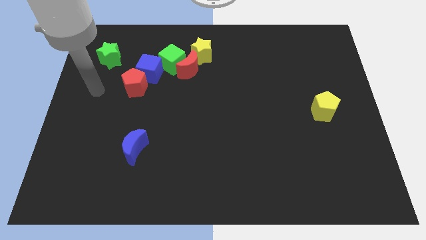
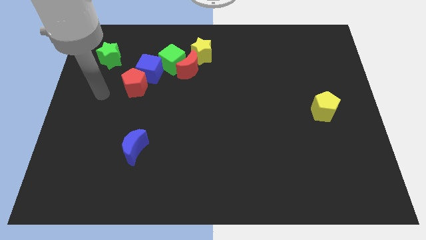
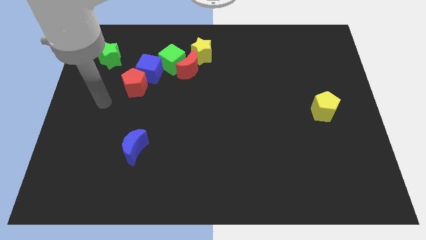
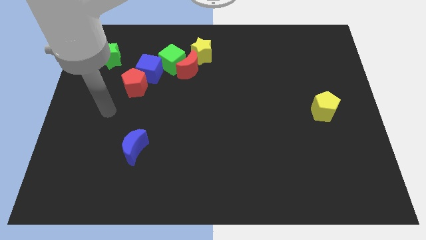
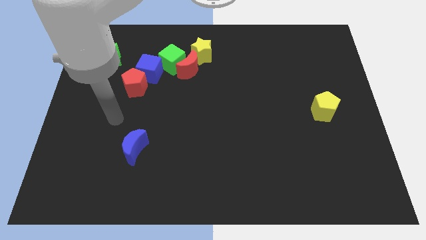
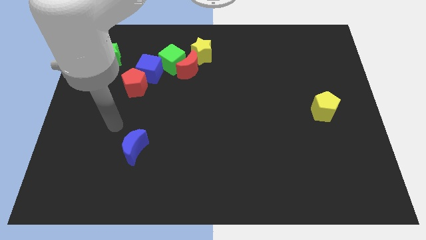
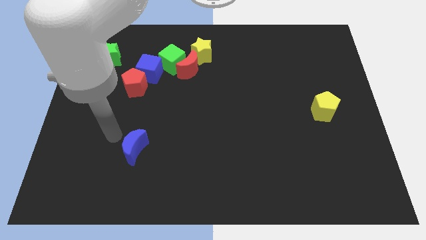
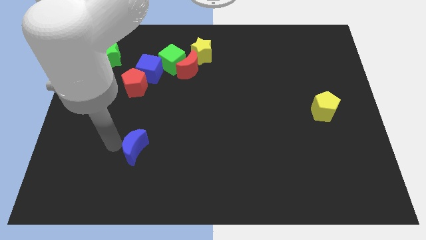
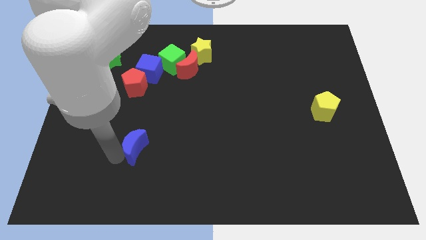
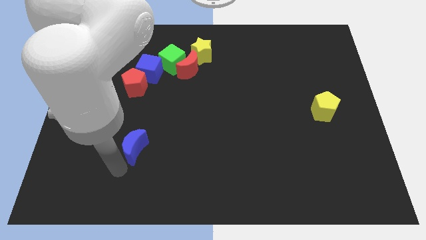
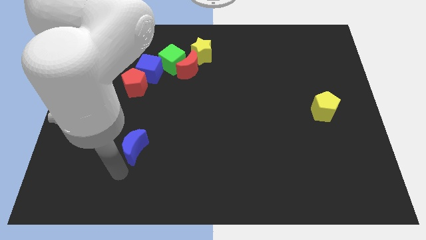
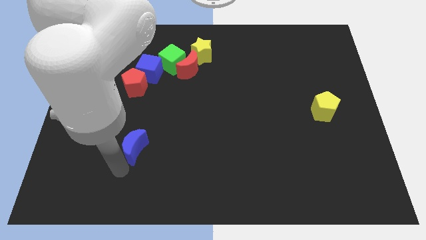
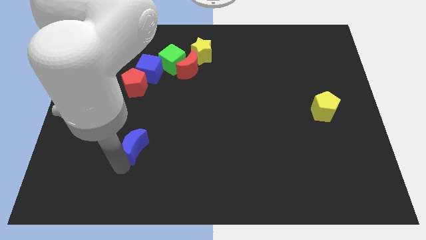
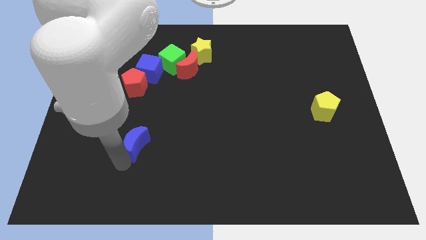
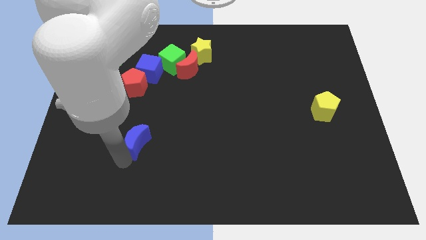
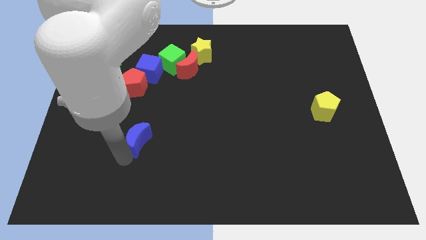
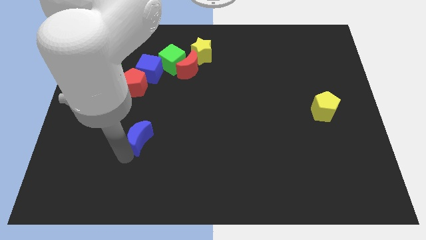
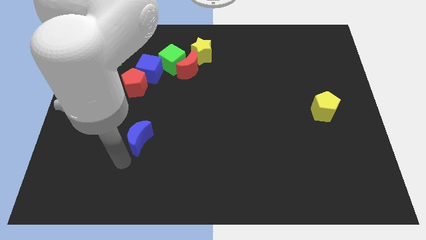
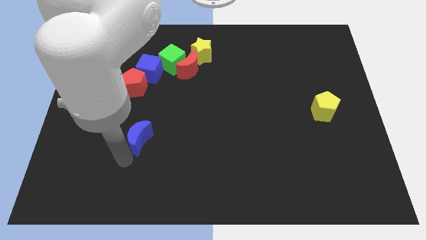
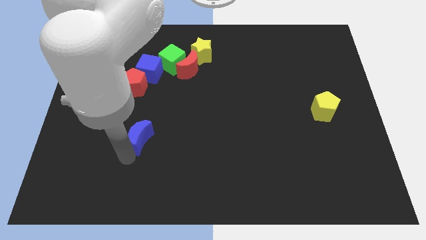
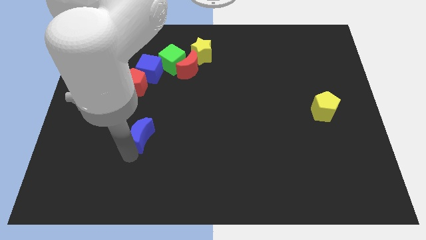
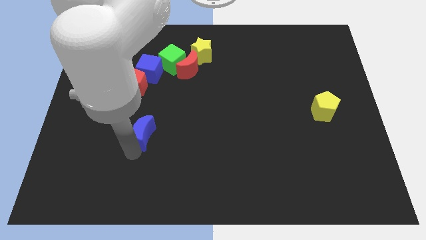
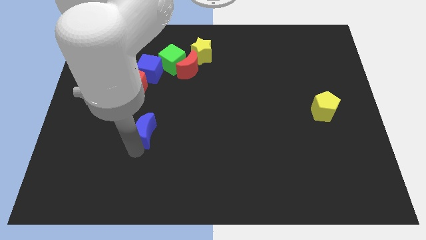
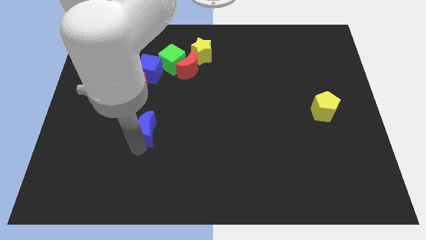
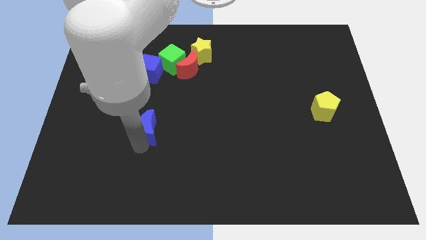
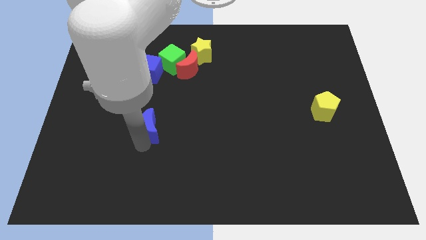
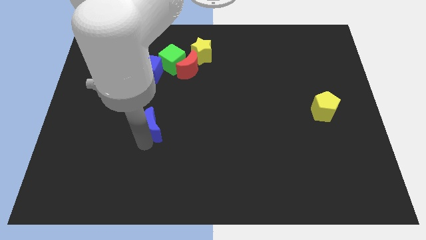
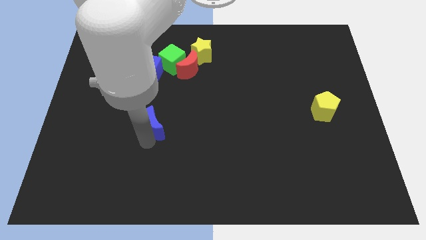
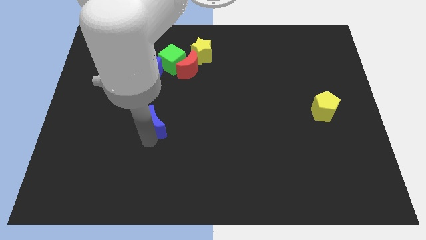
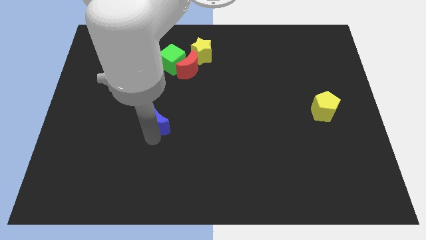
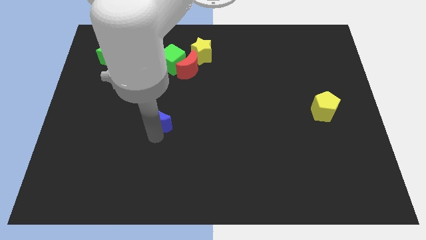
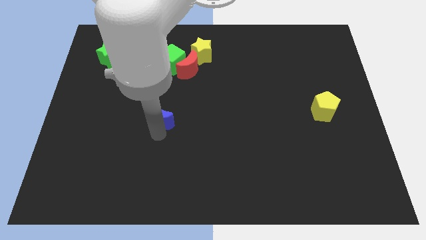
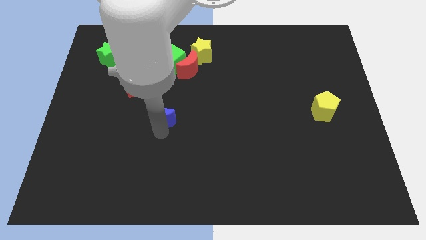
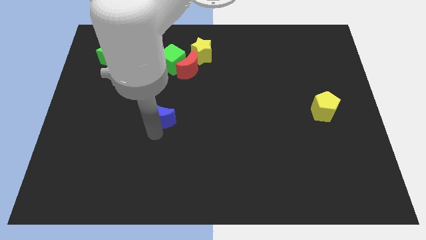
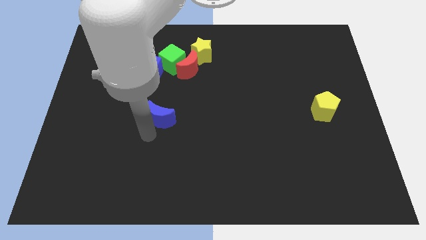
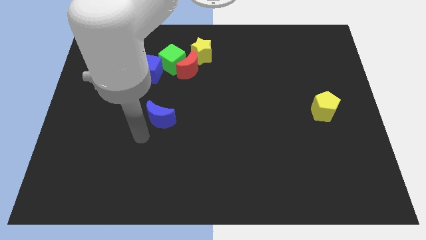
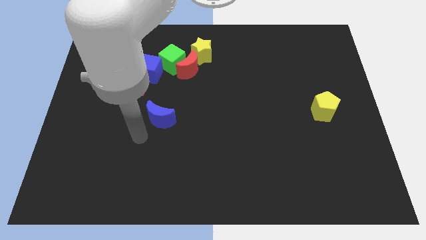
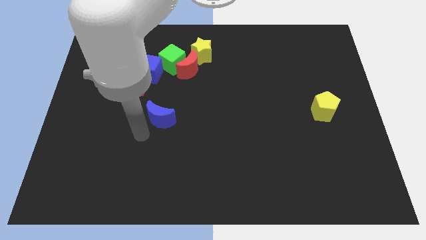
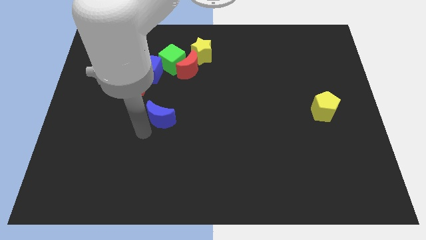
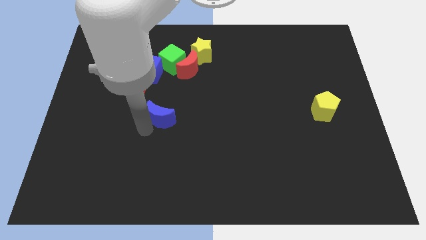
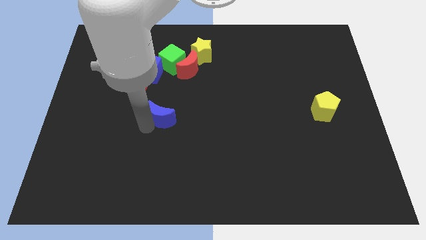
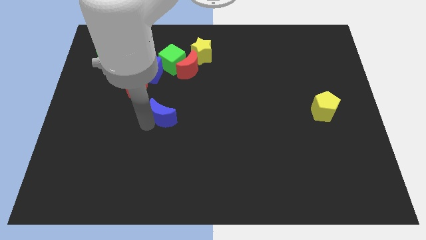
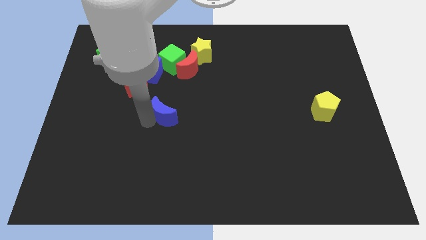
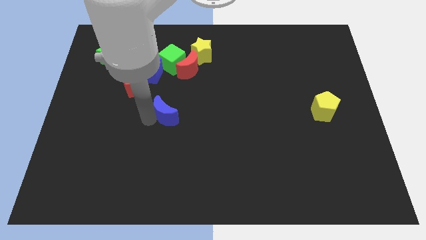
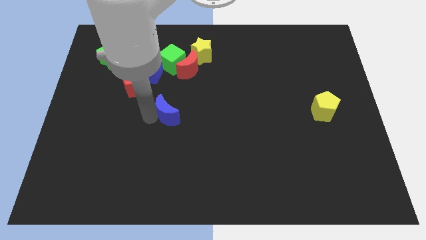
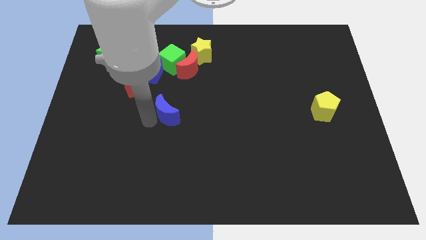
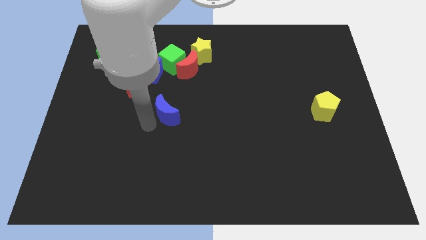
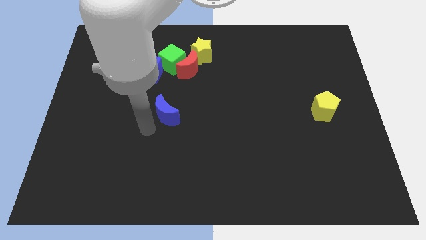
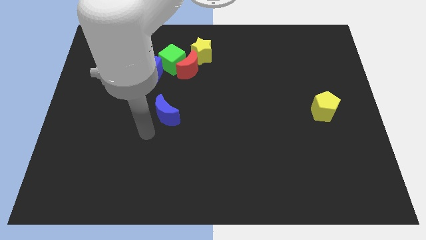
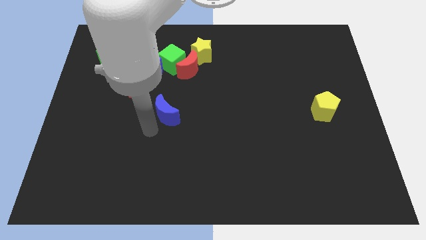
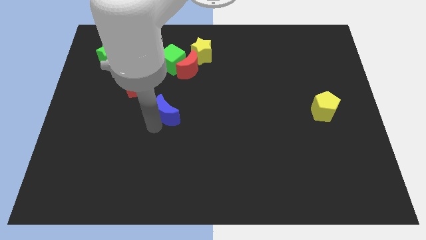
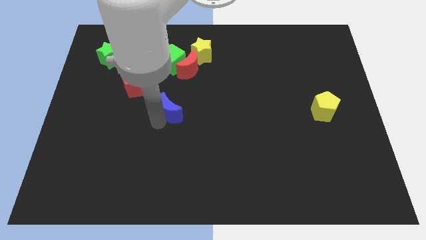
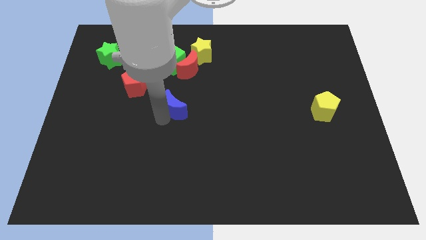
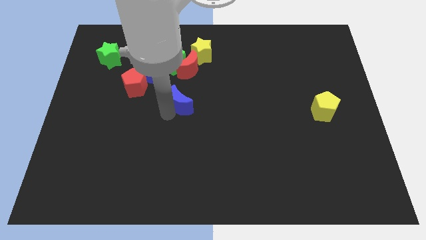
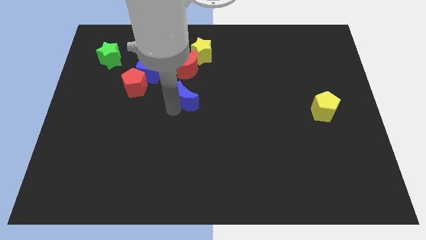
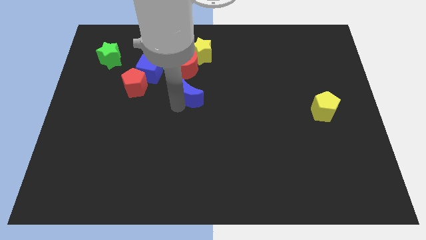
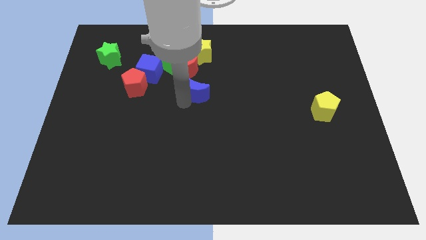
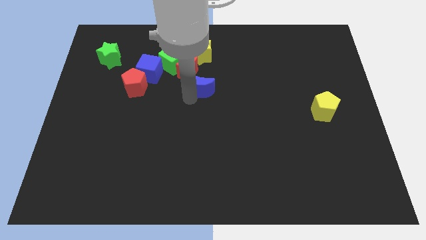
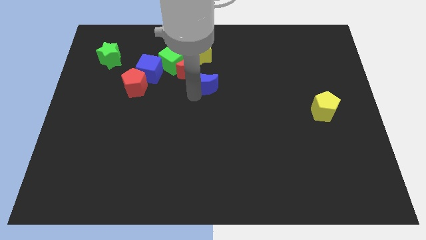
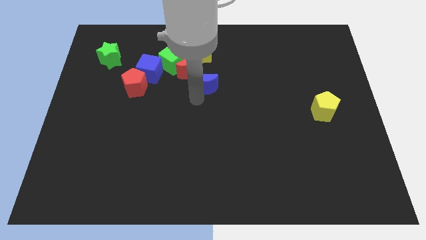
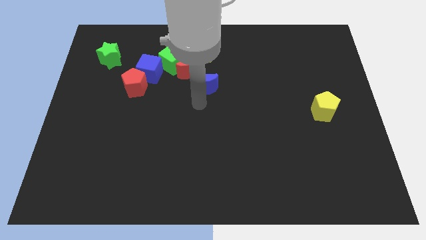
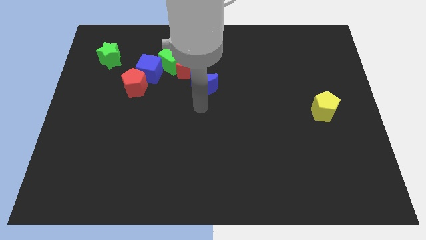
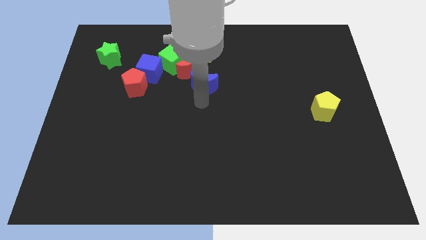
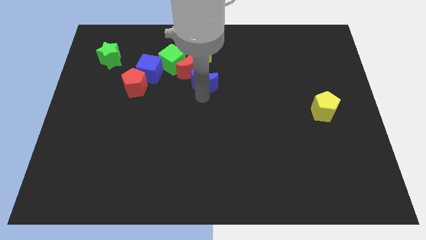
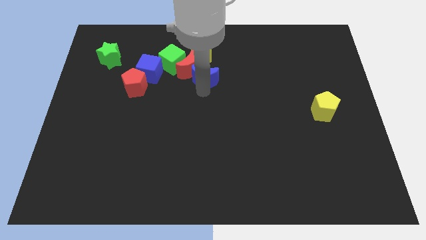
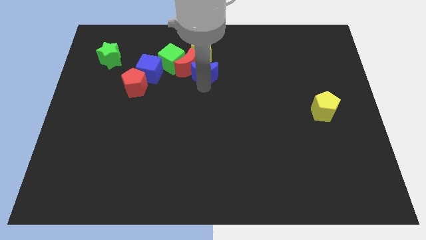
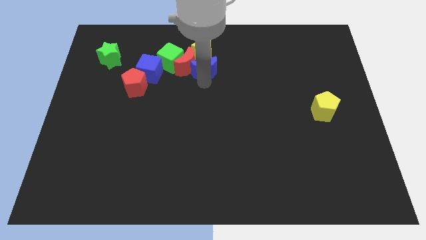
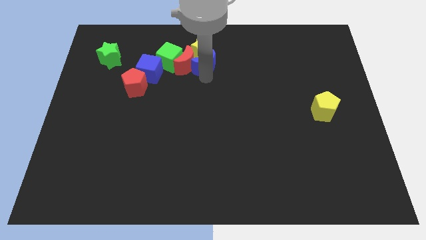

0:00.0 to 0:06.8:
move the blue moon next to the yellow star
